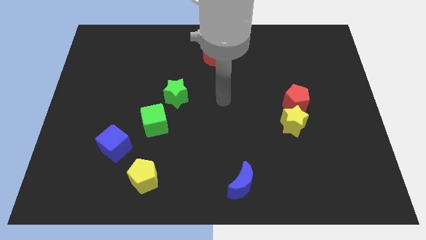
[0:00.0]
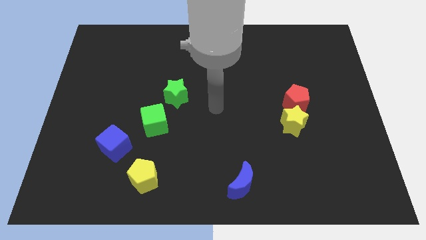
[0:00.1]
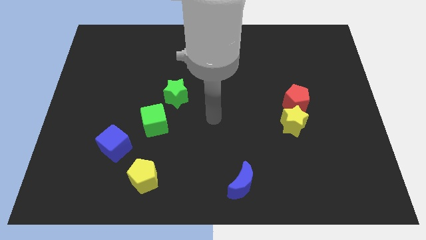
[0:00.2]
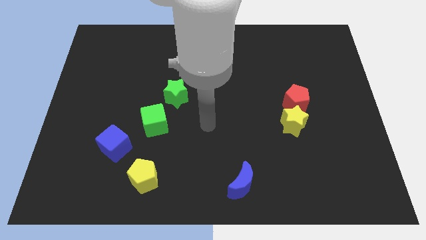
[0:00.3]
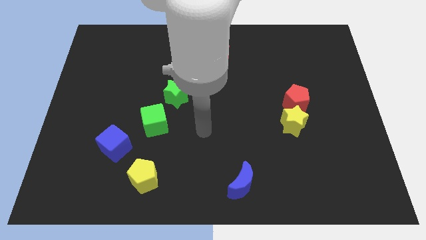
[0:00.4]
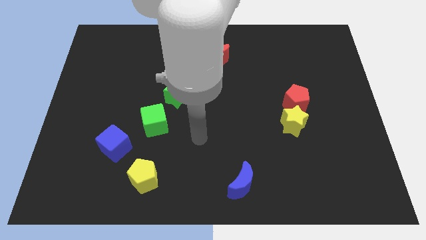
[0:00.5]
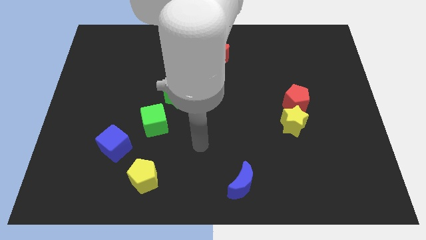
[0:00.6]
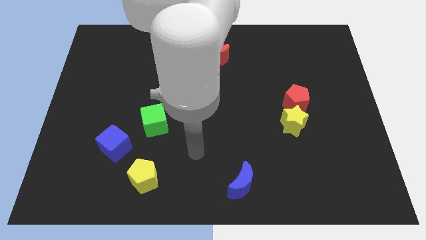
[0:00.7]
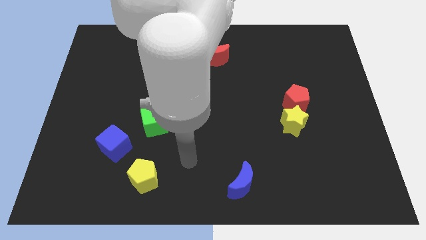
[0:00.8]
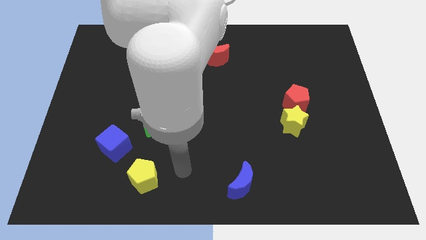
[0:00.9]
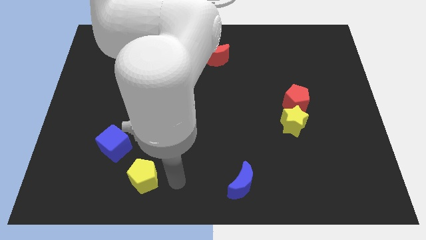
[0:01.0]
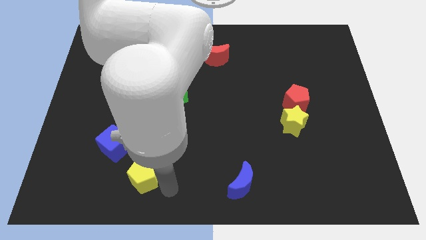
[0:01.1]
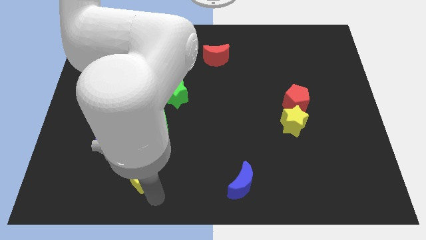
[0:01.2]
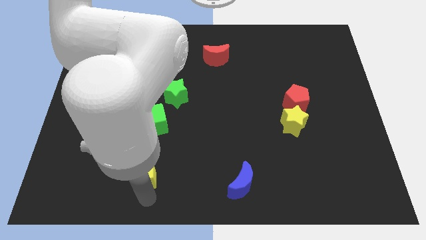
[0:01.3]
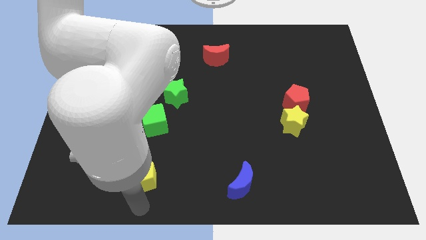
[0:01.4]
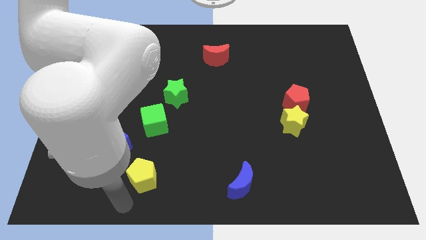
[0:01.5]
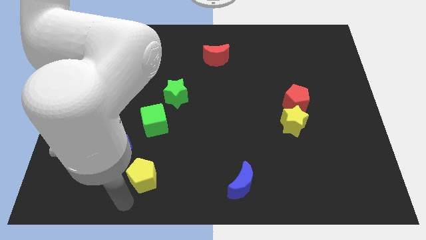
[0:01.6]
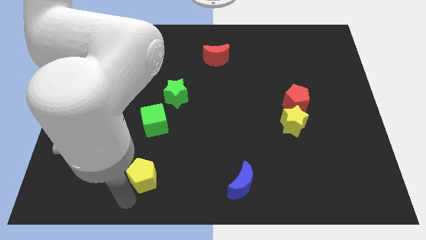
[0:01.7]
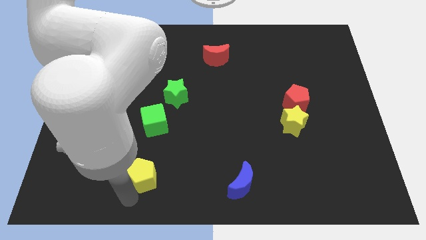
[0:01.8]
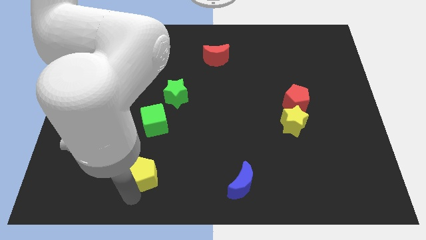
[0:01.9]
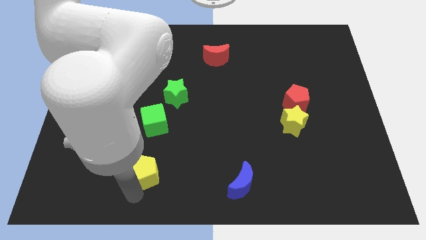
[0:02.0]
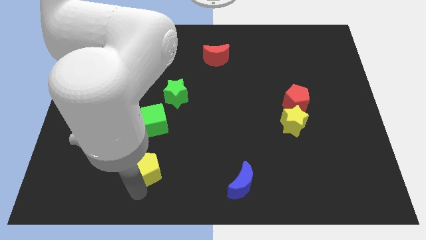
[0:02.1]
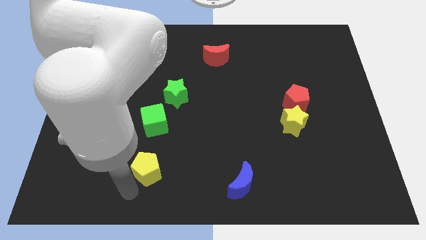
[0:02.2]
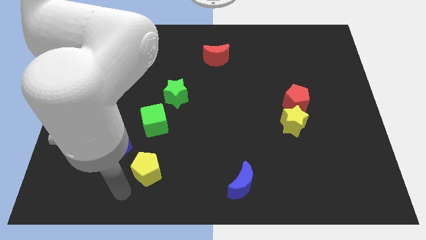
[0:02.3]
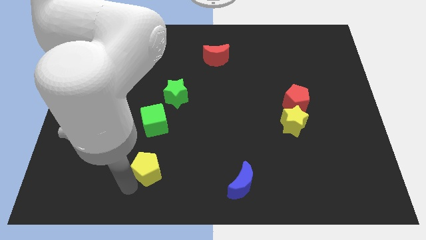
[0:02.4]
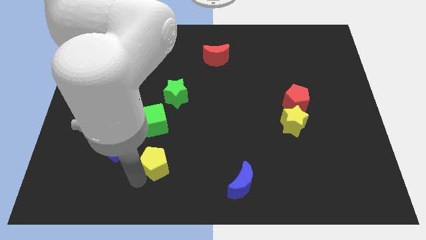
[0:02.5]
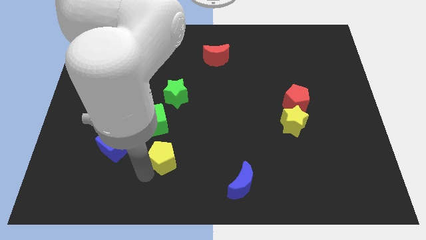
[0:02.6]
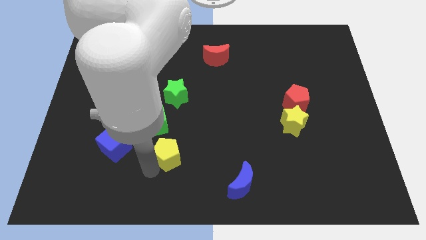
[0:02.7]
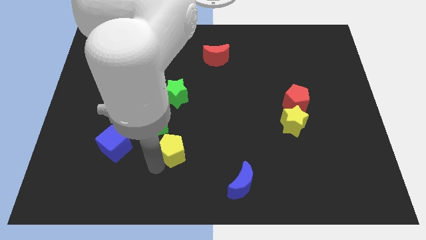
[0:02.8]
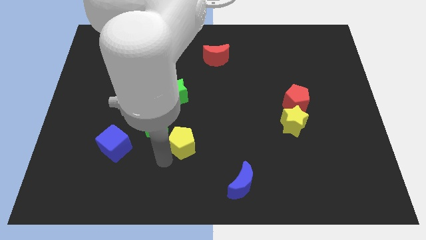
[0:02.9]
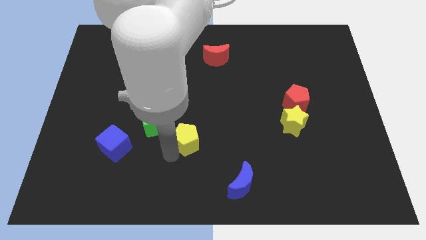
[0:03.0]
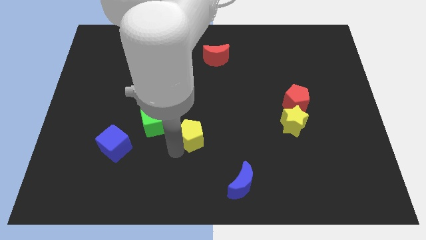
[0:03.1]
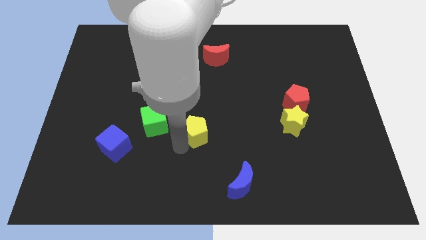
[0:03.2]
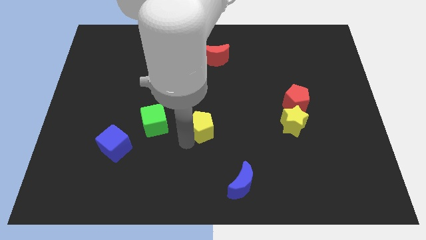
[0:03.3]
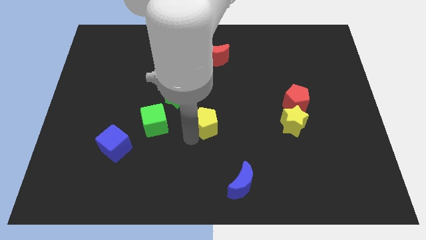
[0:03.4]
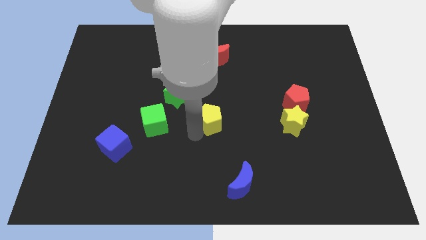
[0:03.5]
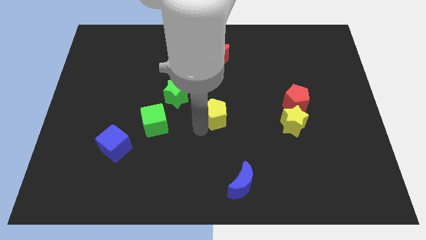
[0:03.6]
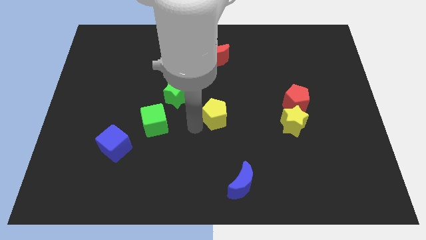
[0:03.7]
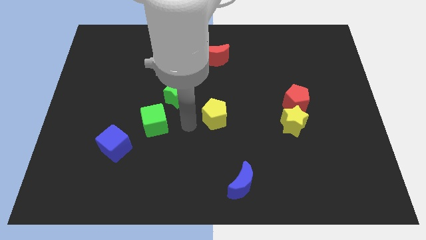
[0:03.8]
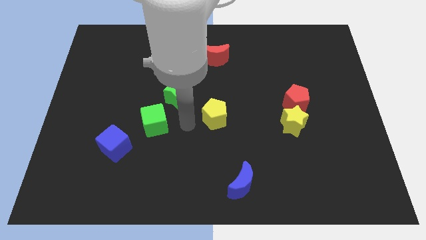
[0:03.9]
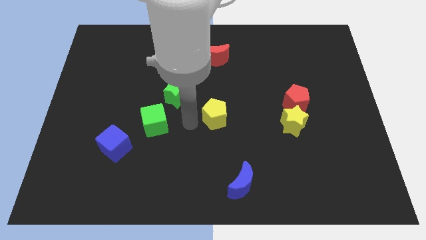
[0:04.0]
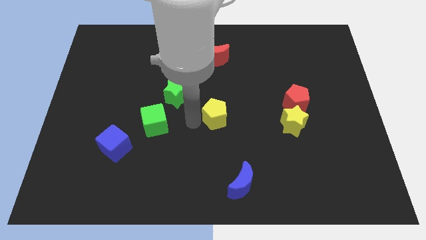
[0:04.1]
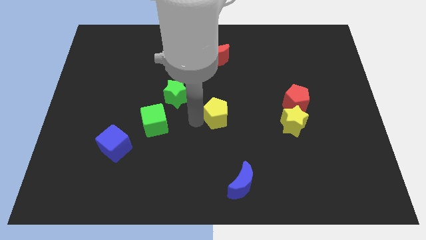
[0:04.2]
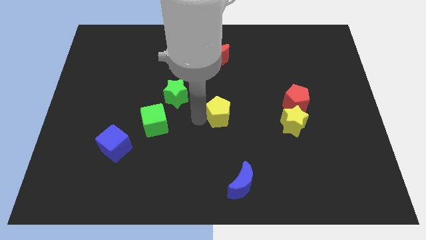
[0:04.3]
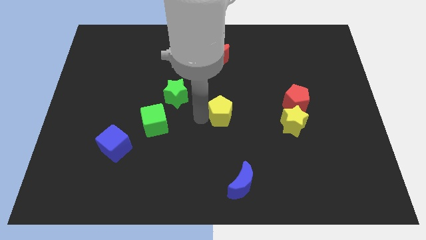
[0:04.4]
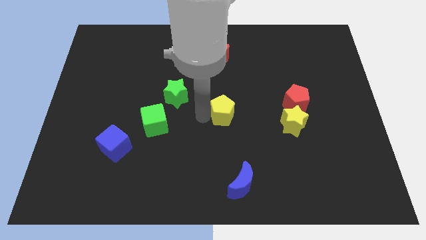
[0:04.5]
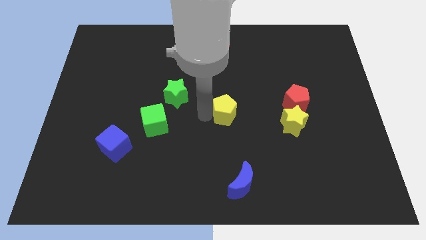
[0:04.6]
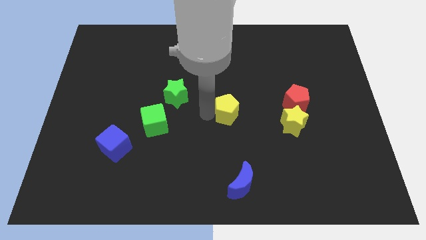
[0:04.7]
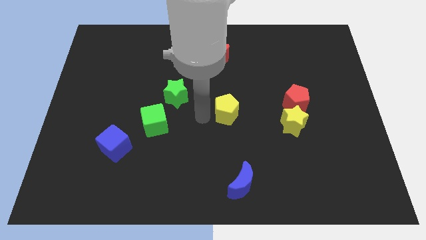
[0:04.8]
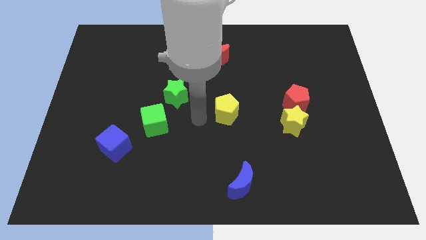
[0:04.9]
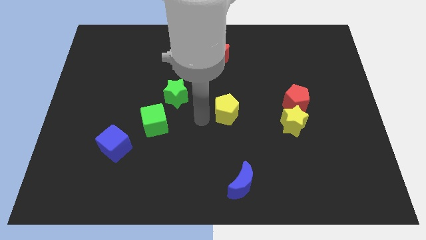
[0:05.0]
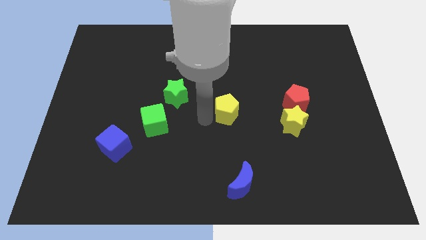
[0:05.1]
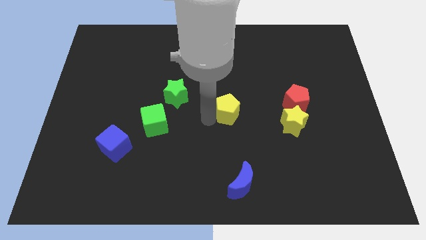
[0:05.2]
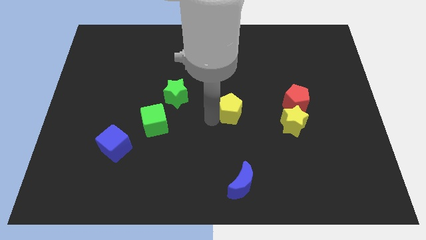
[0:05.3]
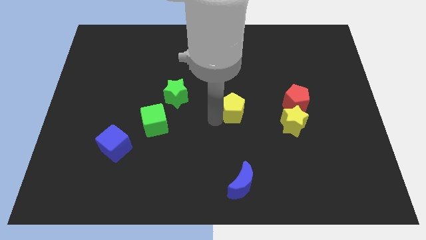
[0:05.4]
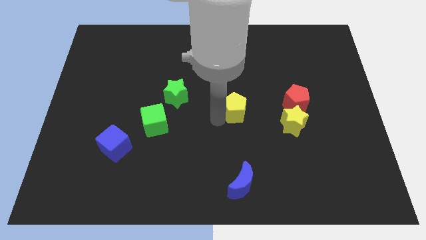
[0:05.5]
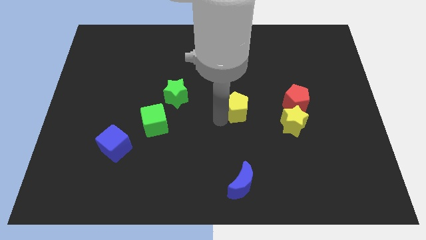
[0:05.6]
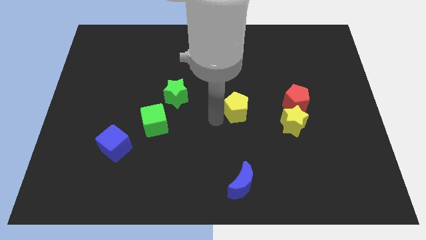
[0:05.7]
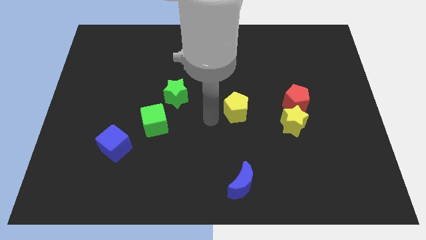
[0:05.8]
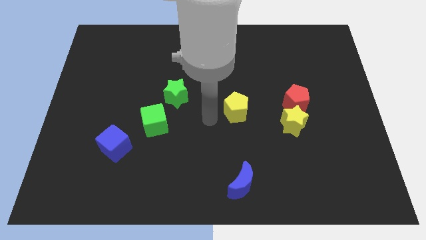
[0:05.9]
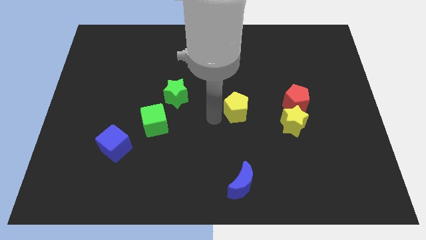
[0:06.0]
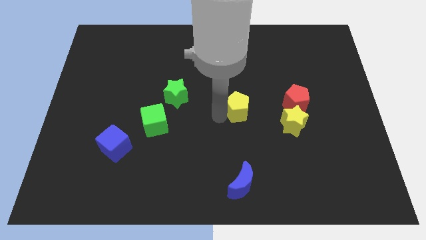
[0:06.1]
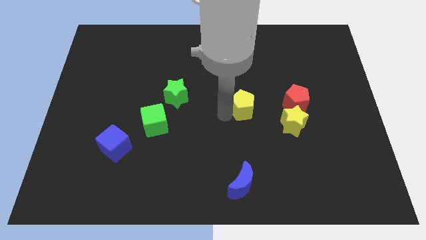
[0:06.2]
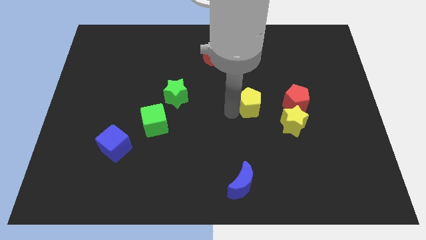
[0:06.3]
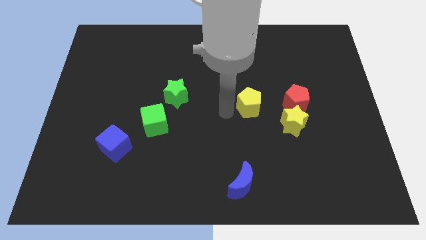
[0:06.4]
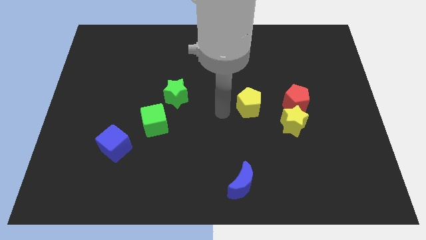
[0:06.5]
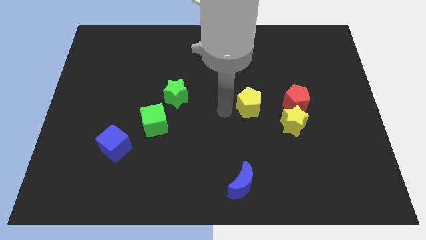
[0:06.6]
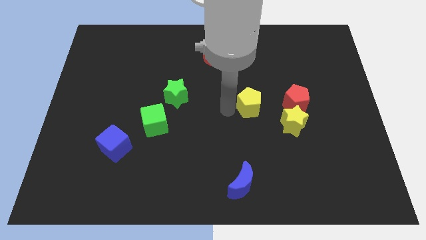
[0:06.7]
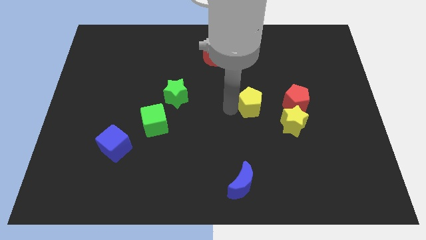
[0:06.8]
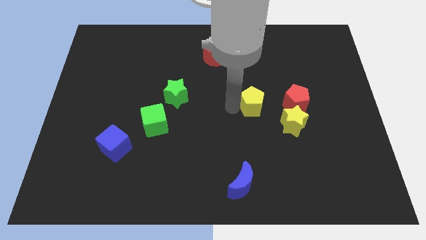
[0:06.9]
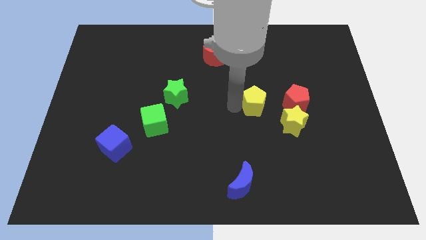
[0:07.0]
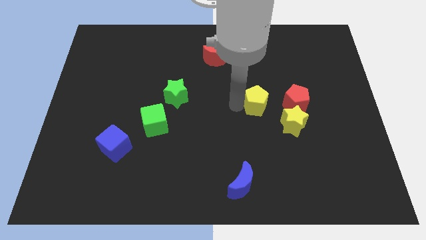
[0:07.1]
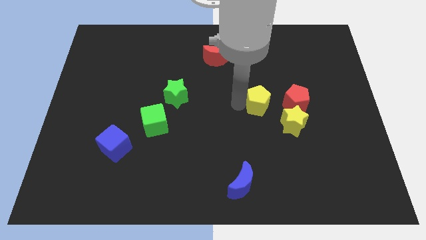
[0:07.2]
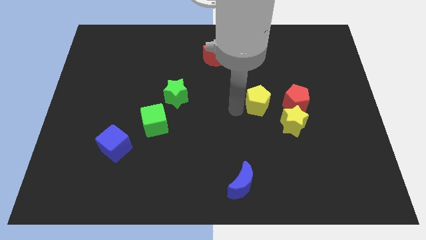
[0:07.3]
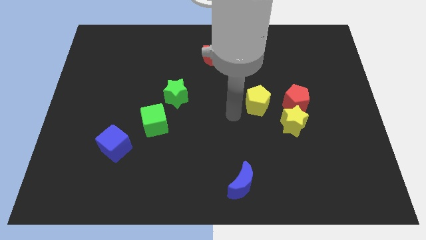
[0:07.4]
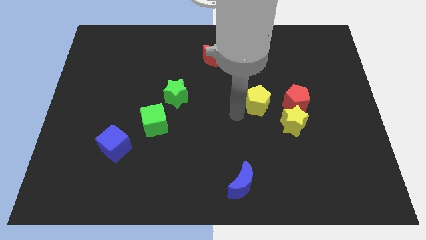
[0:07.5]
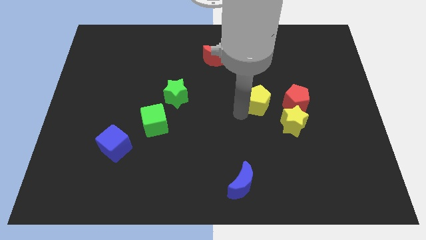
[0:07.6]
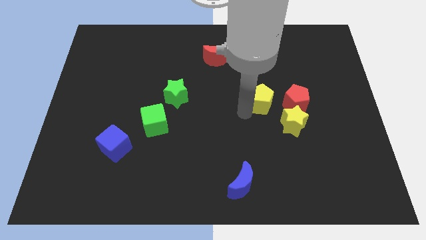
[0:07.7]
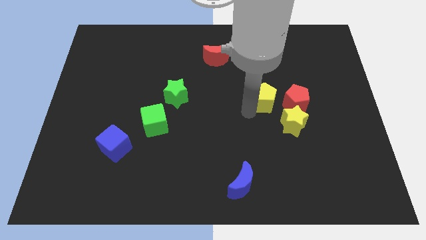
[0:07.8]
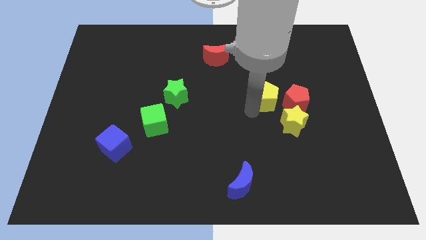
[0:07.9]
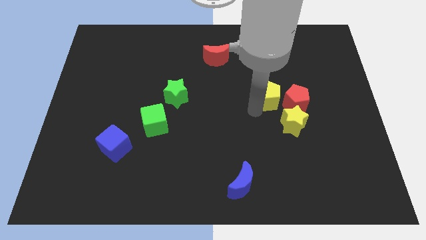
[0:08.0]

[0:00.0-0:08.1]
push the yellow pentagon above the yellow star
